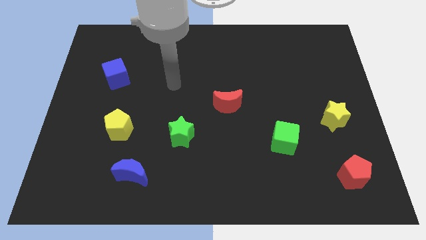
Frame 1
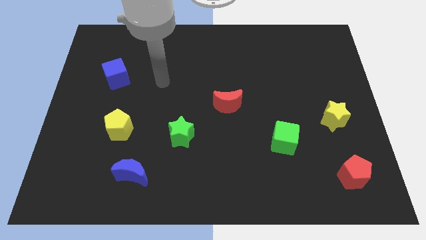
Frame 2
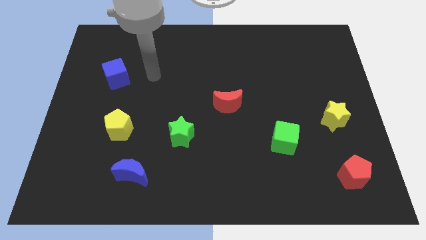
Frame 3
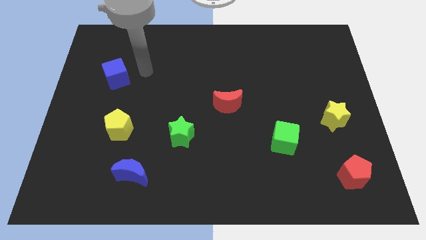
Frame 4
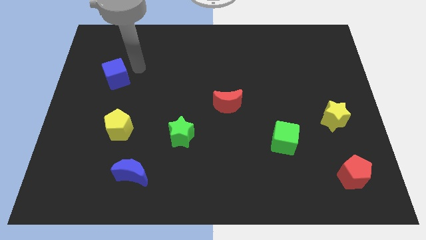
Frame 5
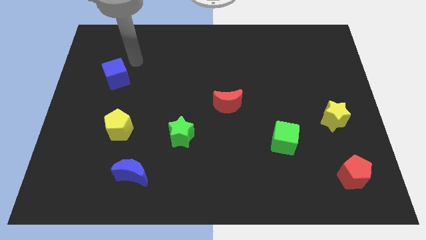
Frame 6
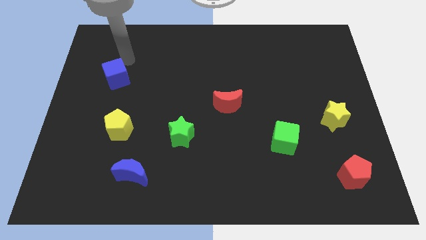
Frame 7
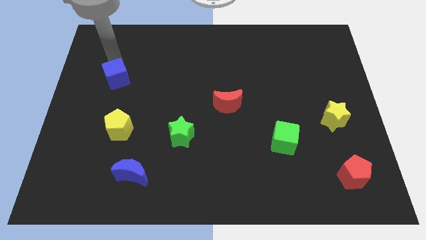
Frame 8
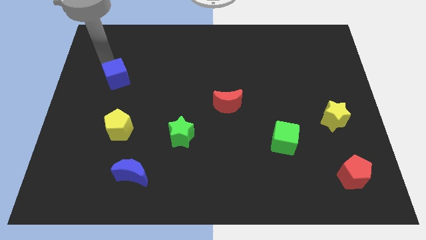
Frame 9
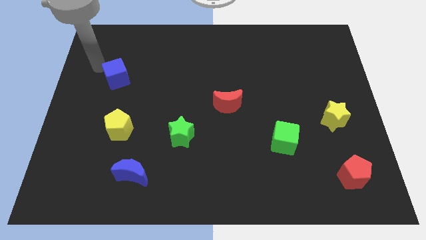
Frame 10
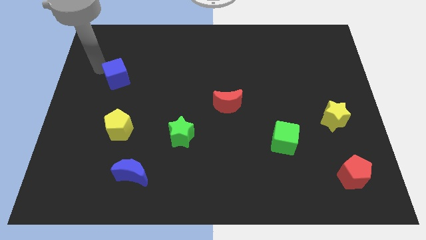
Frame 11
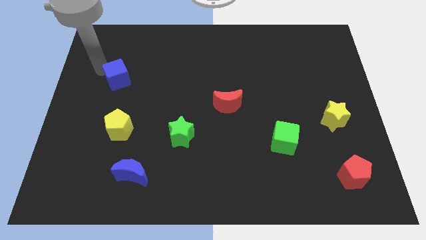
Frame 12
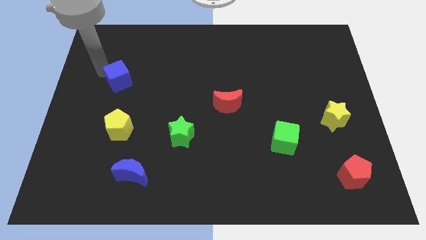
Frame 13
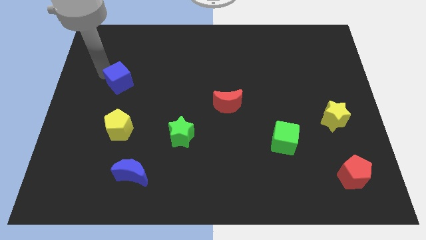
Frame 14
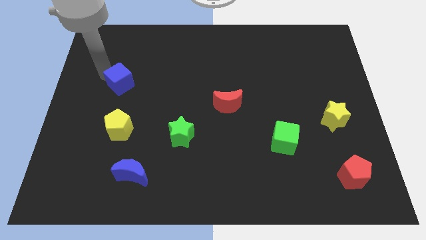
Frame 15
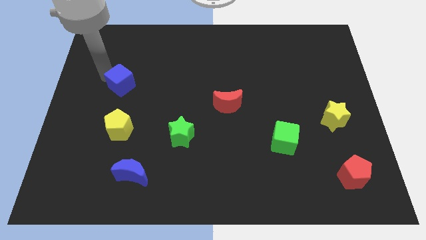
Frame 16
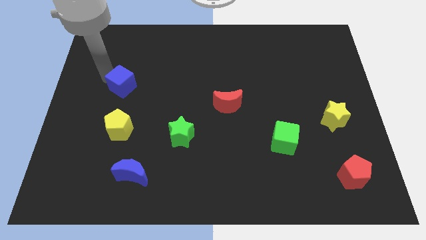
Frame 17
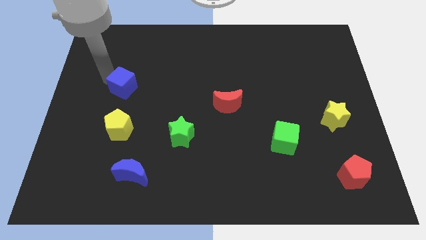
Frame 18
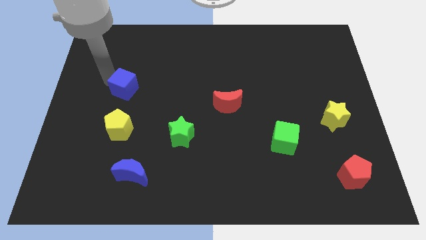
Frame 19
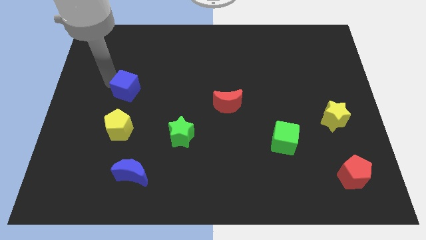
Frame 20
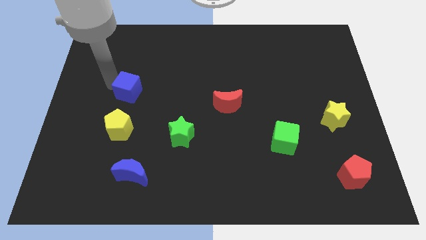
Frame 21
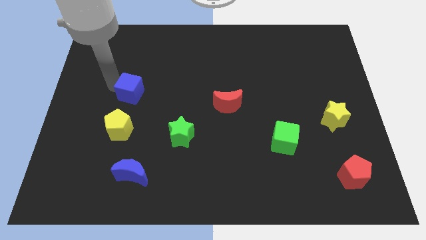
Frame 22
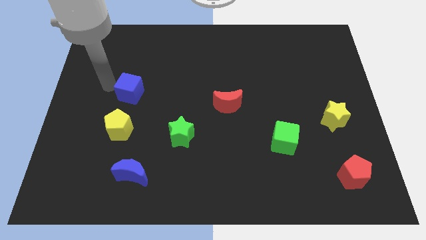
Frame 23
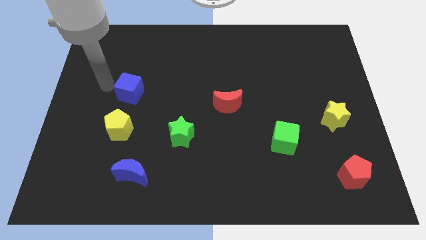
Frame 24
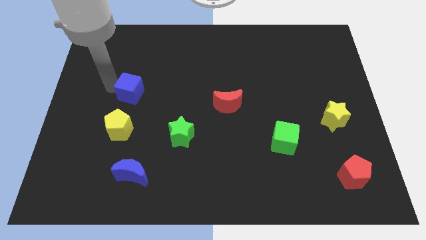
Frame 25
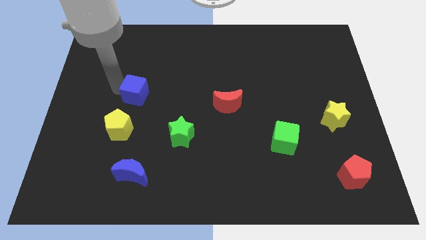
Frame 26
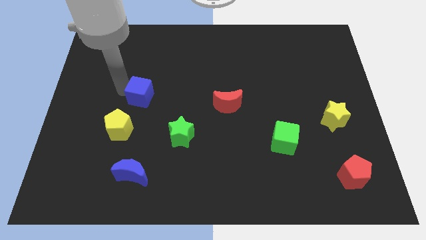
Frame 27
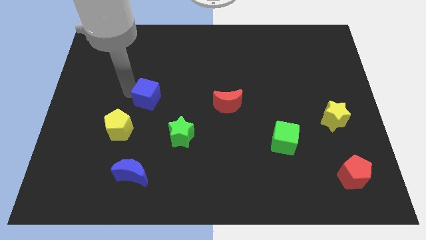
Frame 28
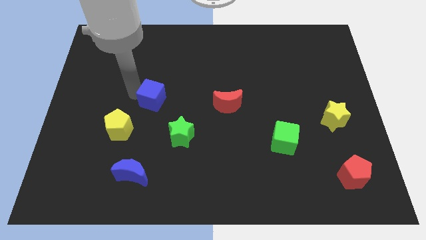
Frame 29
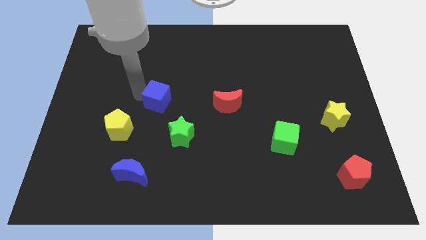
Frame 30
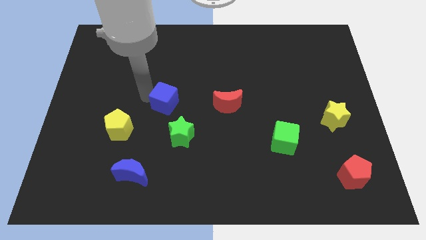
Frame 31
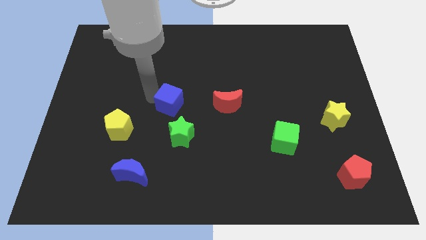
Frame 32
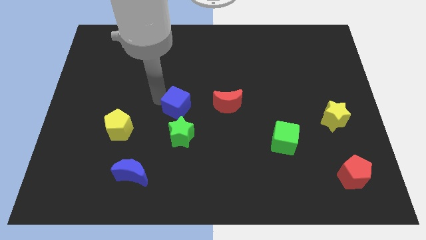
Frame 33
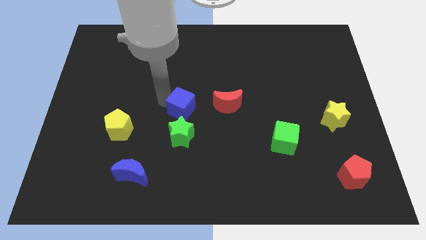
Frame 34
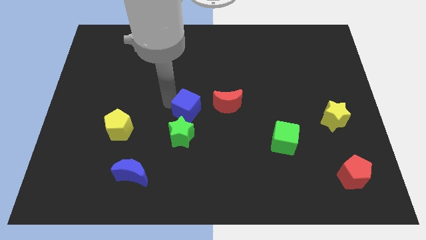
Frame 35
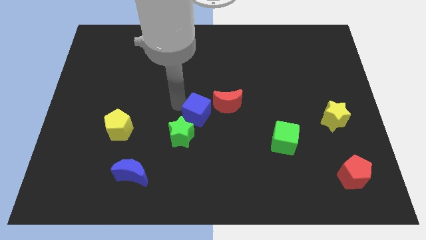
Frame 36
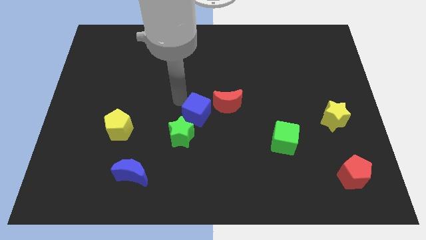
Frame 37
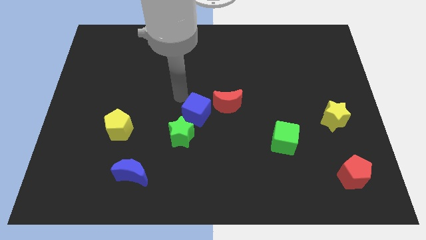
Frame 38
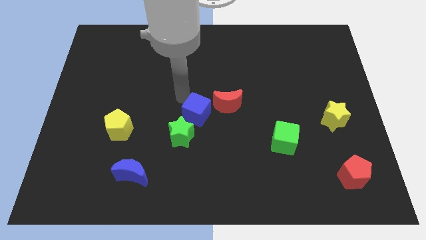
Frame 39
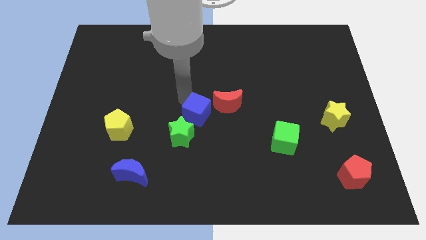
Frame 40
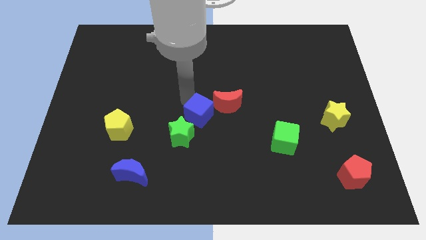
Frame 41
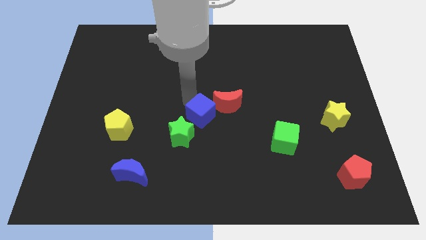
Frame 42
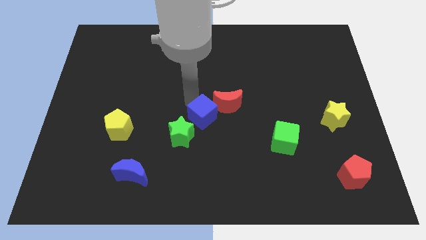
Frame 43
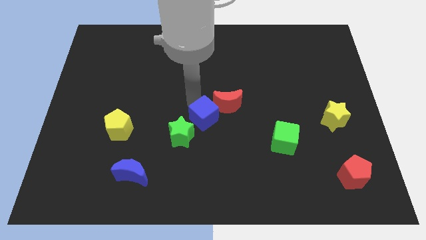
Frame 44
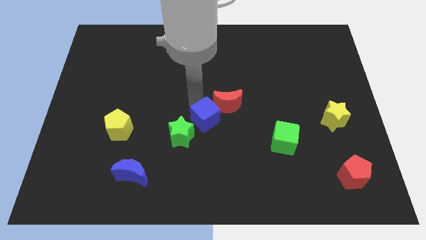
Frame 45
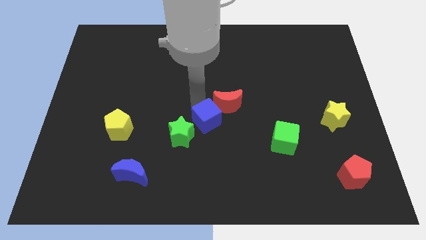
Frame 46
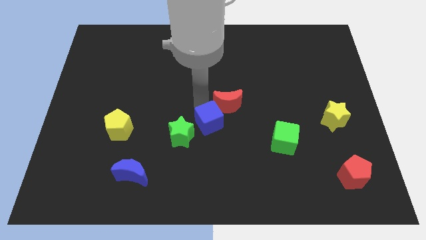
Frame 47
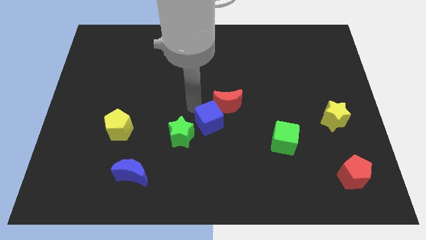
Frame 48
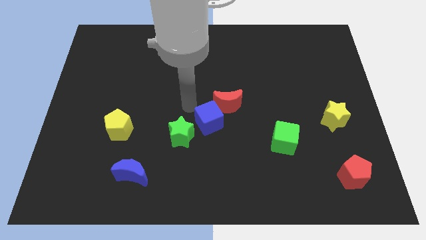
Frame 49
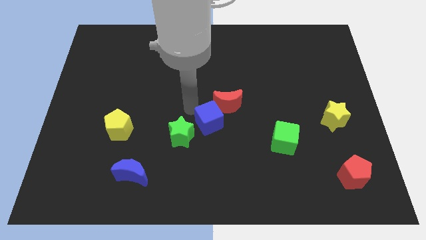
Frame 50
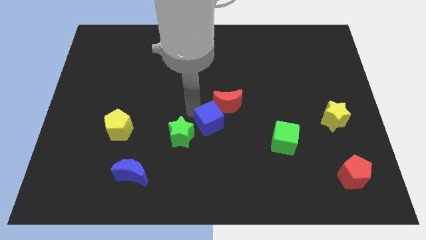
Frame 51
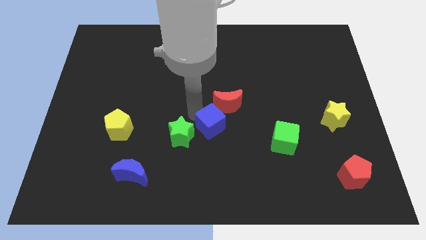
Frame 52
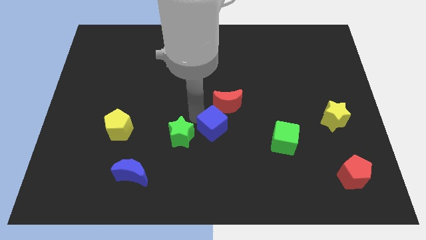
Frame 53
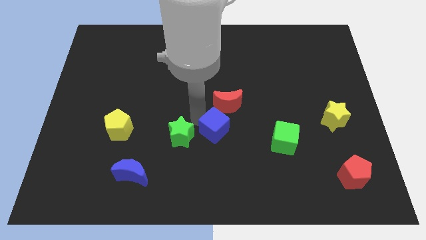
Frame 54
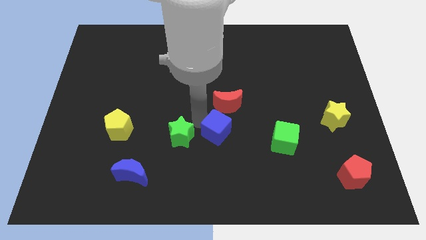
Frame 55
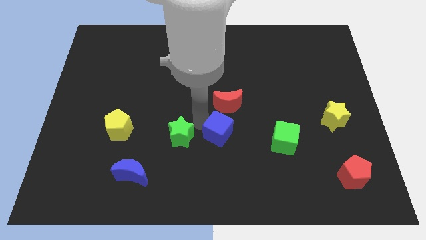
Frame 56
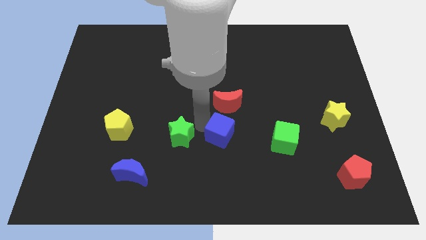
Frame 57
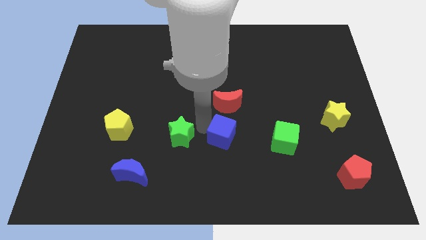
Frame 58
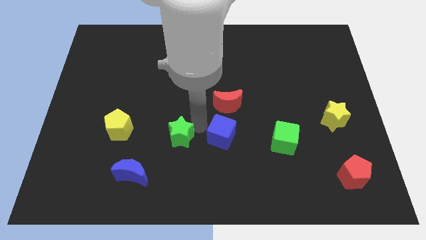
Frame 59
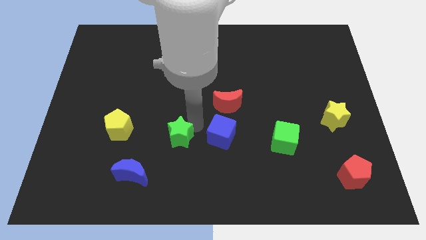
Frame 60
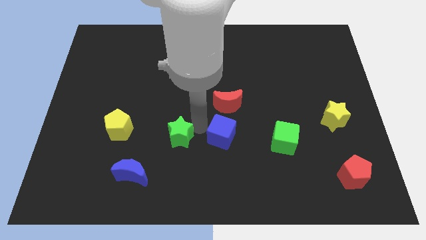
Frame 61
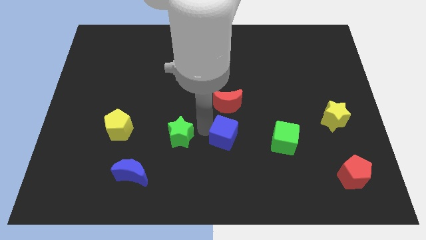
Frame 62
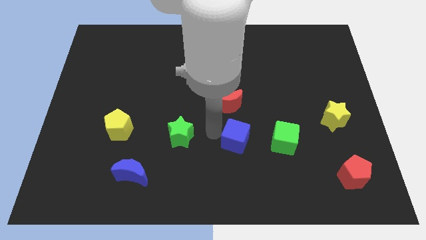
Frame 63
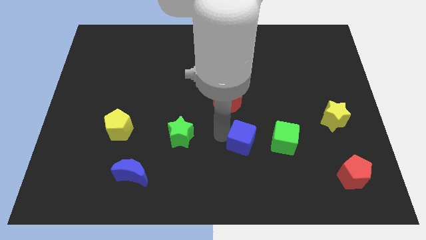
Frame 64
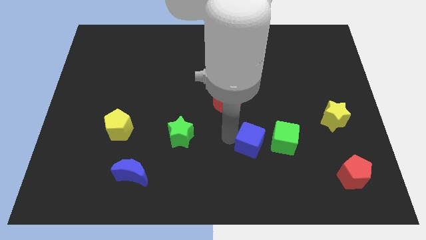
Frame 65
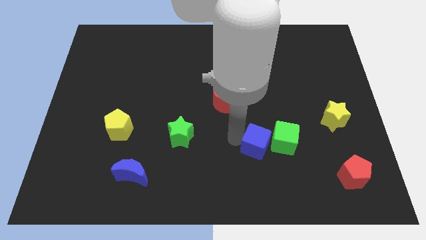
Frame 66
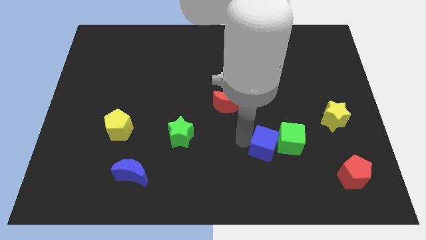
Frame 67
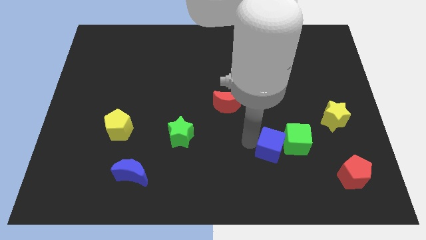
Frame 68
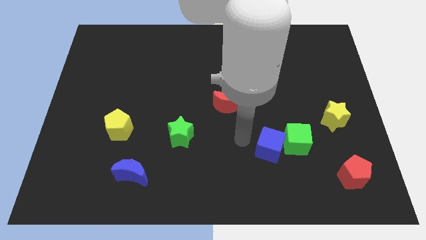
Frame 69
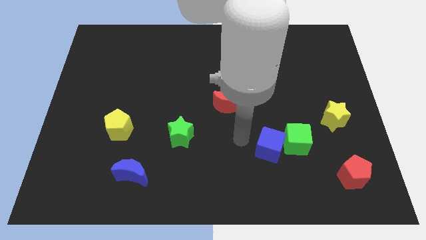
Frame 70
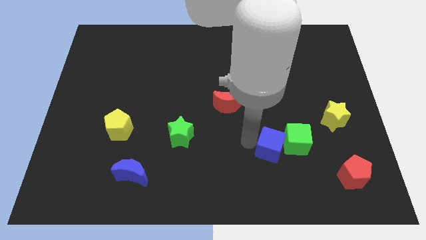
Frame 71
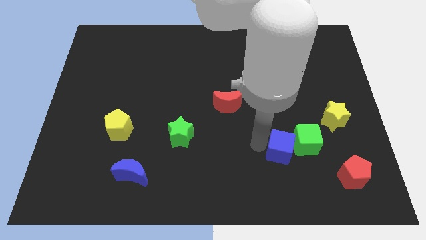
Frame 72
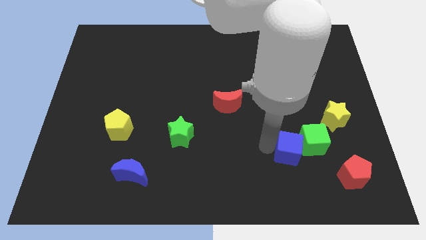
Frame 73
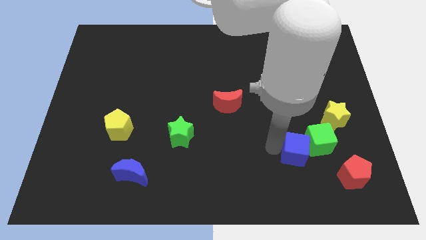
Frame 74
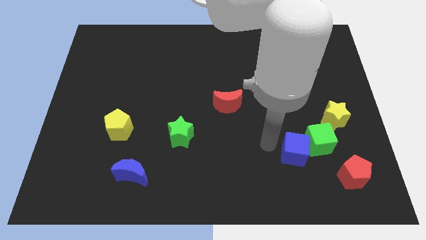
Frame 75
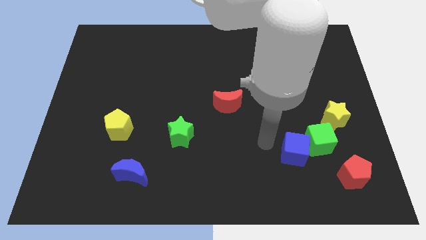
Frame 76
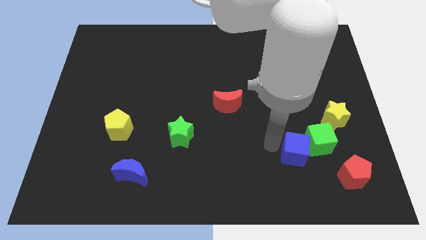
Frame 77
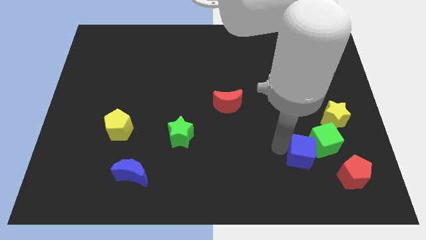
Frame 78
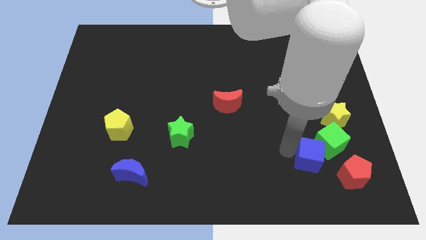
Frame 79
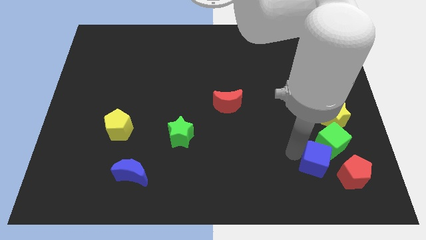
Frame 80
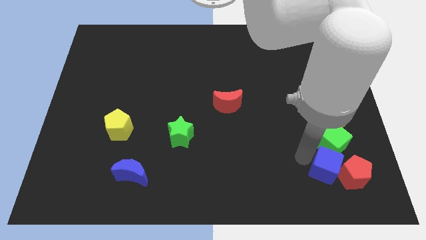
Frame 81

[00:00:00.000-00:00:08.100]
put the blue cube close to the red pentagon
